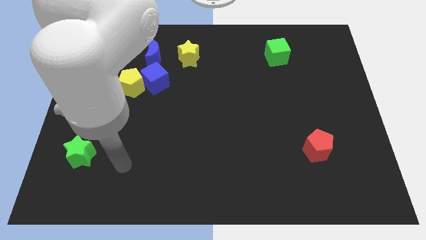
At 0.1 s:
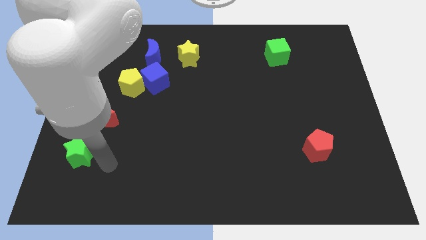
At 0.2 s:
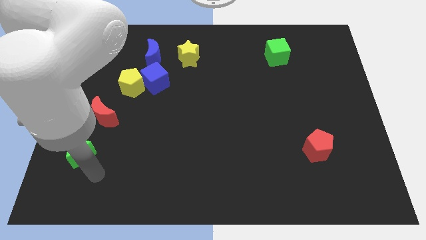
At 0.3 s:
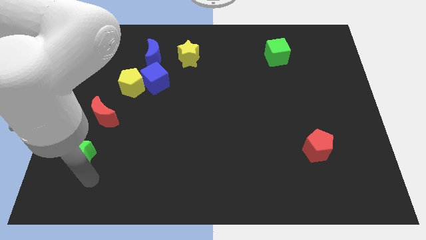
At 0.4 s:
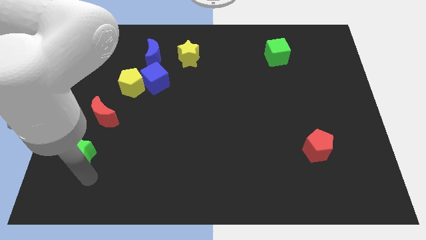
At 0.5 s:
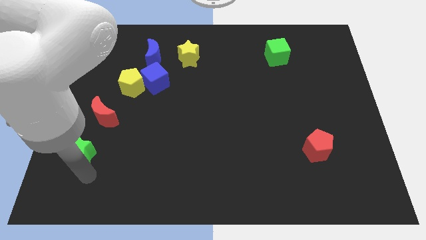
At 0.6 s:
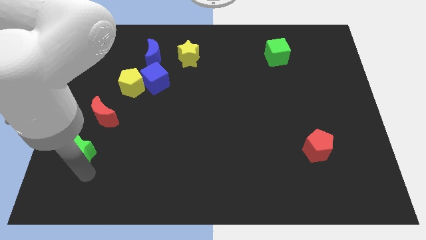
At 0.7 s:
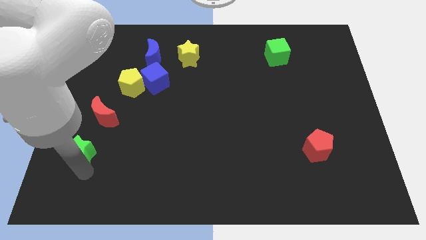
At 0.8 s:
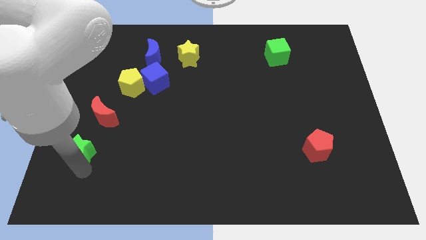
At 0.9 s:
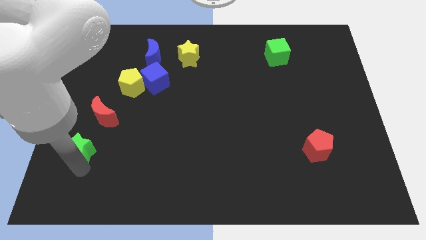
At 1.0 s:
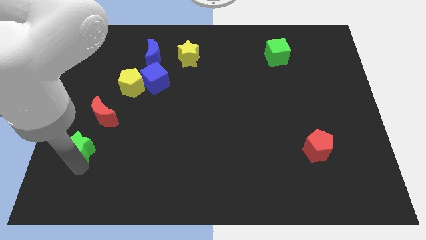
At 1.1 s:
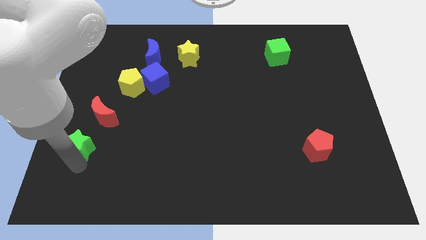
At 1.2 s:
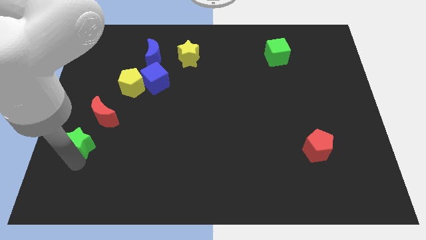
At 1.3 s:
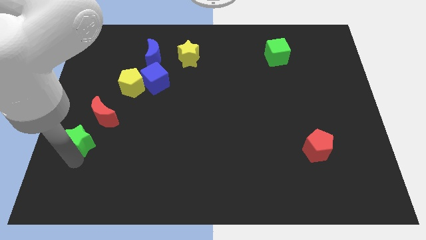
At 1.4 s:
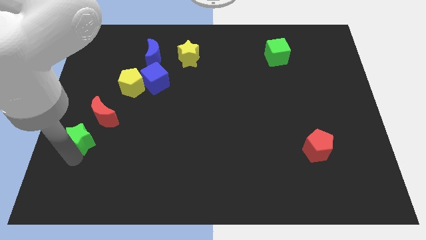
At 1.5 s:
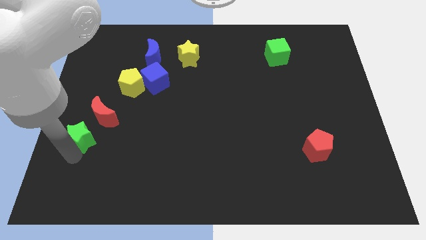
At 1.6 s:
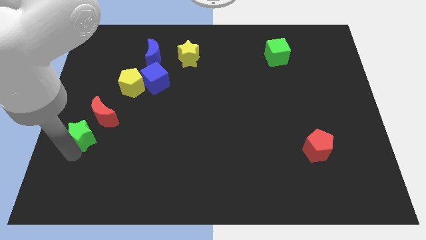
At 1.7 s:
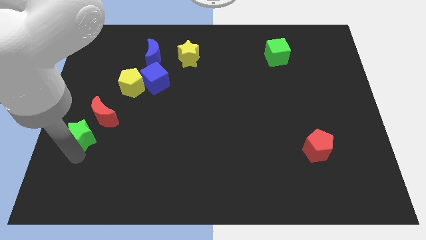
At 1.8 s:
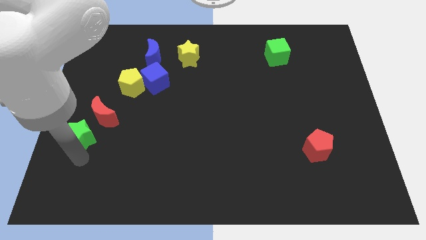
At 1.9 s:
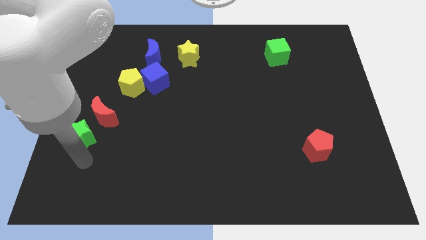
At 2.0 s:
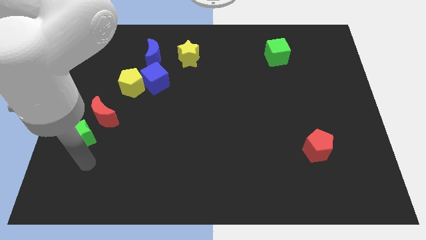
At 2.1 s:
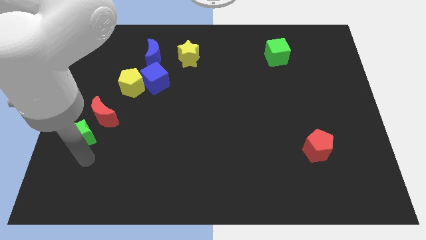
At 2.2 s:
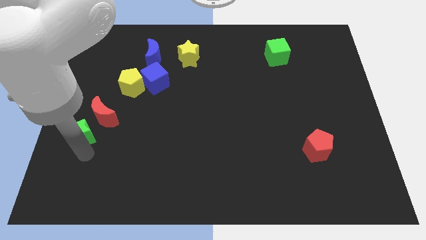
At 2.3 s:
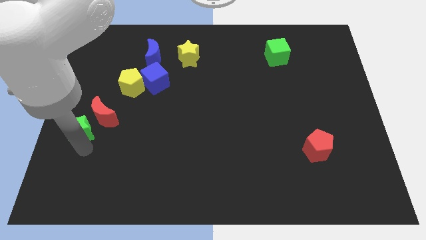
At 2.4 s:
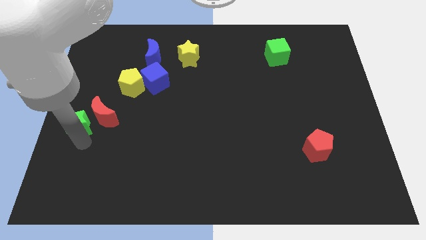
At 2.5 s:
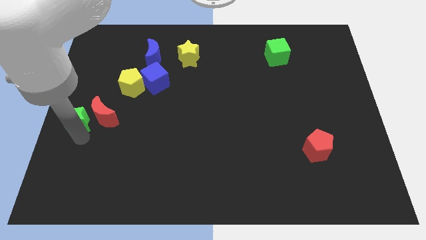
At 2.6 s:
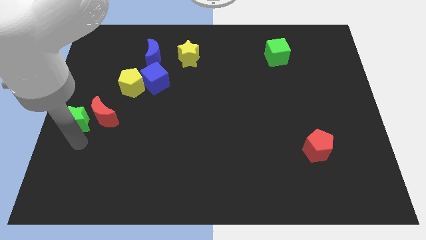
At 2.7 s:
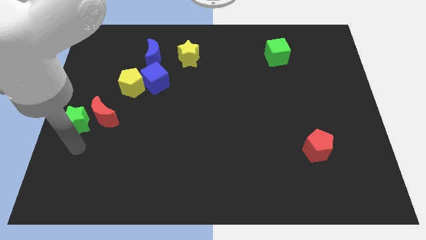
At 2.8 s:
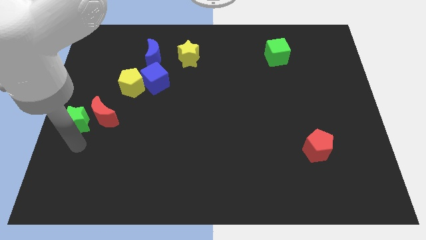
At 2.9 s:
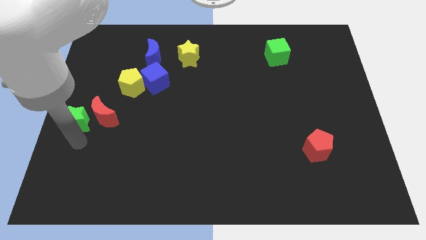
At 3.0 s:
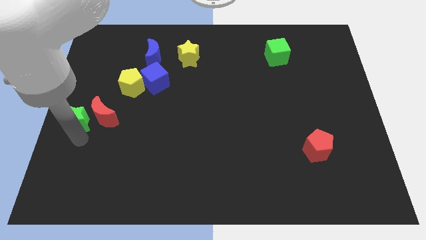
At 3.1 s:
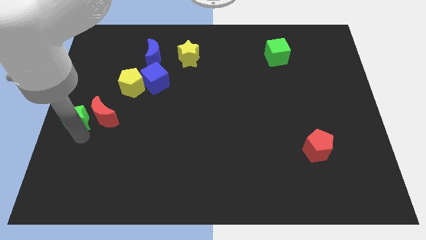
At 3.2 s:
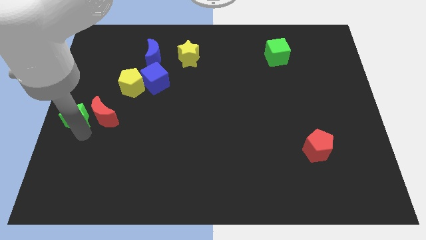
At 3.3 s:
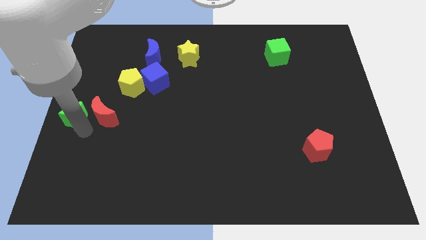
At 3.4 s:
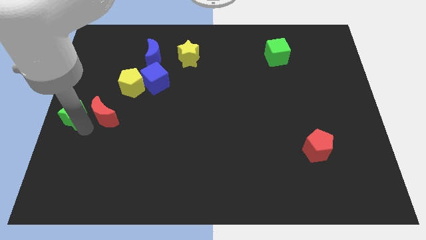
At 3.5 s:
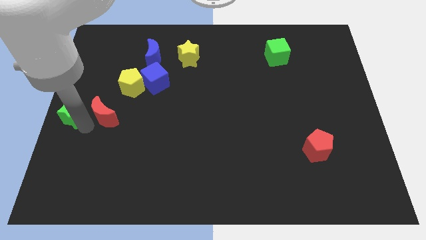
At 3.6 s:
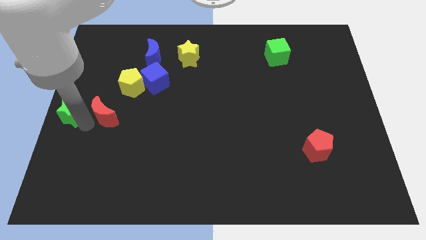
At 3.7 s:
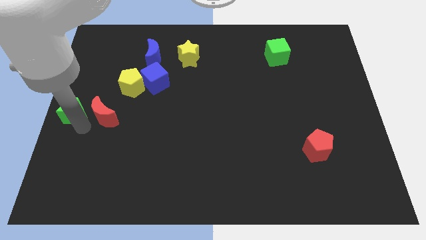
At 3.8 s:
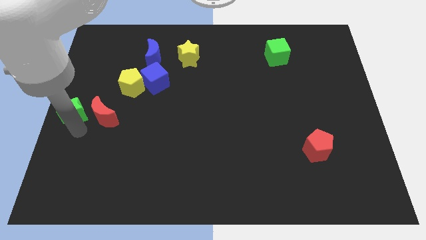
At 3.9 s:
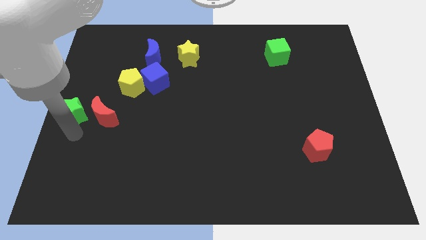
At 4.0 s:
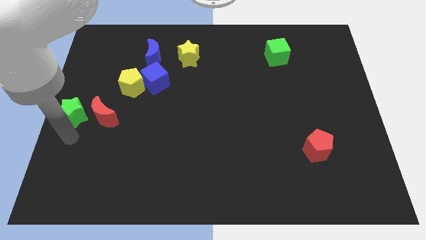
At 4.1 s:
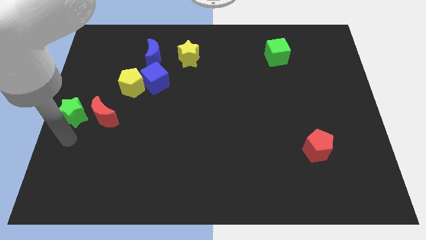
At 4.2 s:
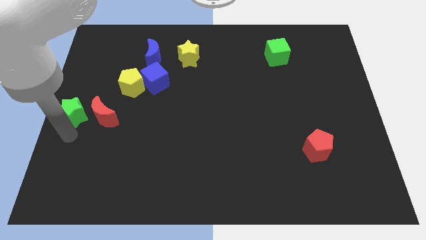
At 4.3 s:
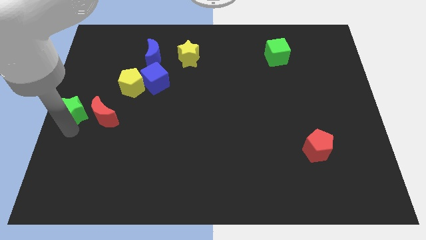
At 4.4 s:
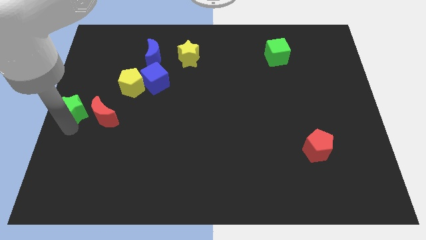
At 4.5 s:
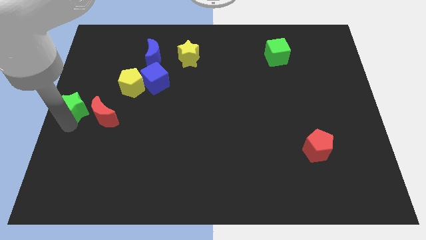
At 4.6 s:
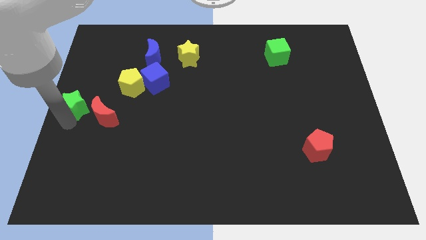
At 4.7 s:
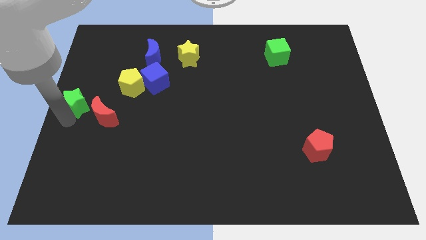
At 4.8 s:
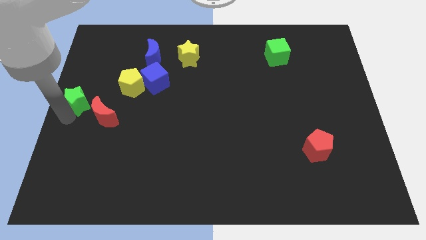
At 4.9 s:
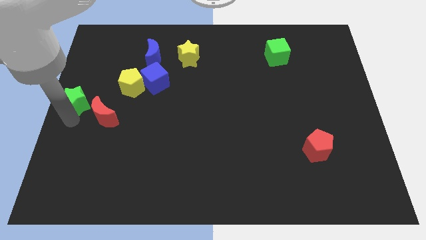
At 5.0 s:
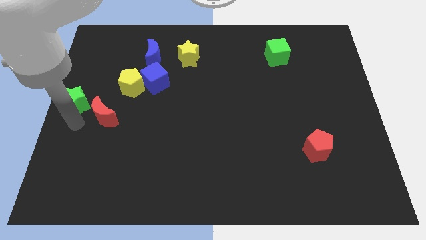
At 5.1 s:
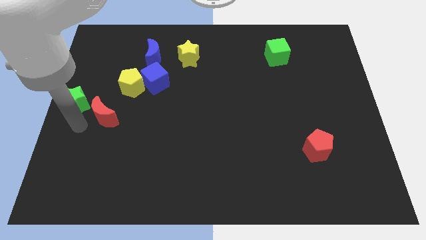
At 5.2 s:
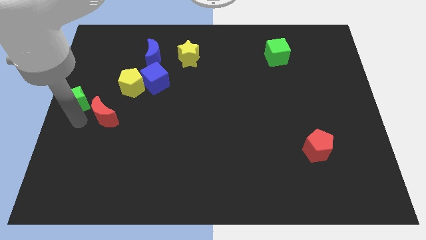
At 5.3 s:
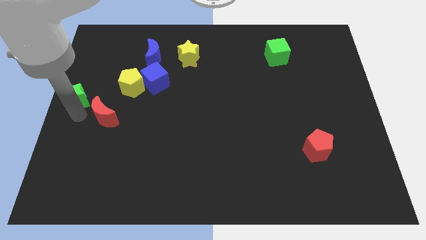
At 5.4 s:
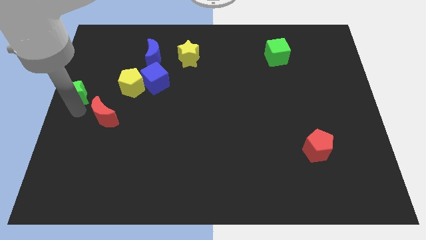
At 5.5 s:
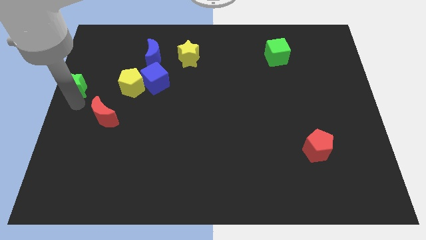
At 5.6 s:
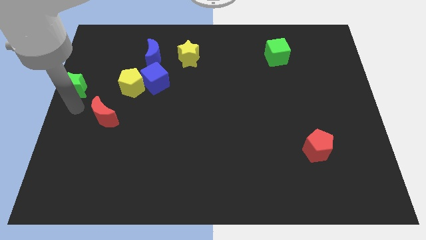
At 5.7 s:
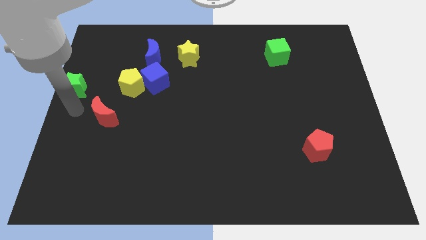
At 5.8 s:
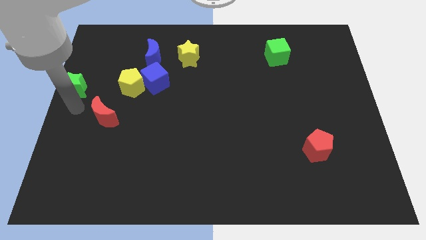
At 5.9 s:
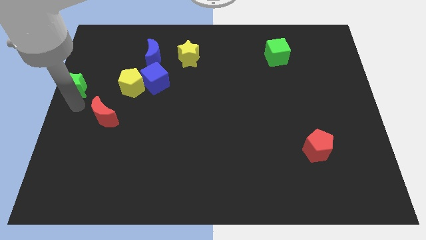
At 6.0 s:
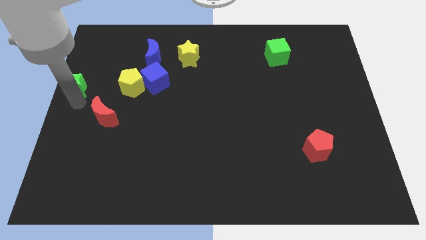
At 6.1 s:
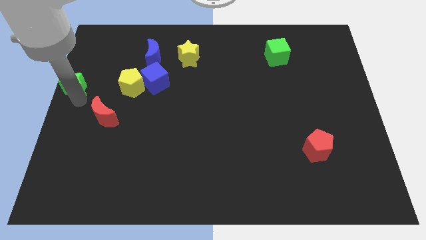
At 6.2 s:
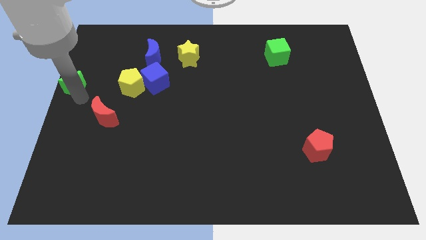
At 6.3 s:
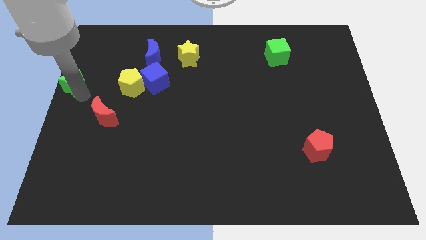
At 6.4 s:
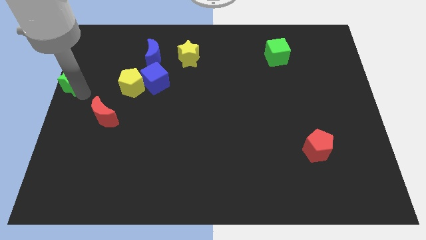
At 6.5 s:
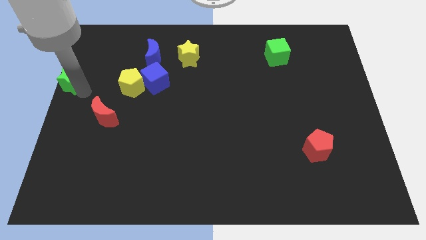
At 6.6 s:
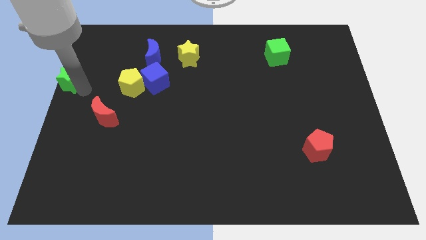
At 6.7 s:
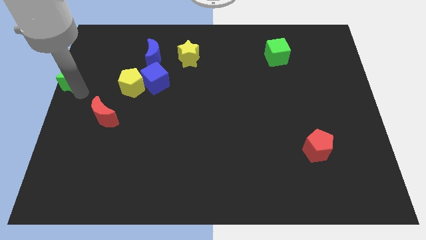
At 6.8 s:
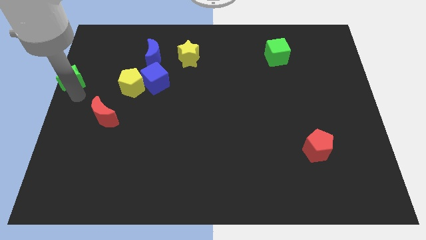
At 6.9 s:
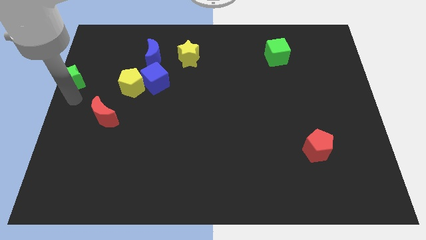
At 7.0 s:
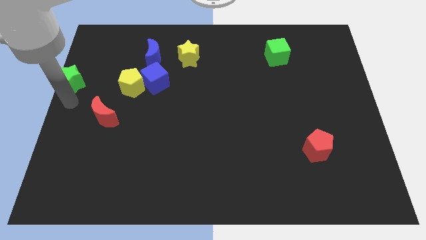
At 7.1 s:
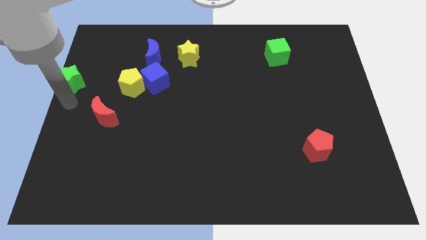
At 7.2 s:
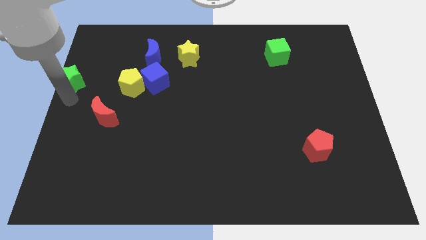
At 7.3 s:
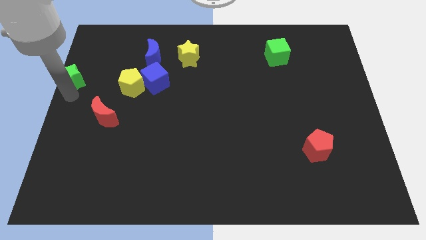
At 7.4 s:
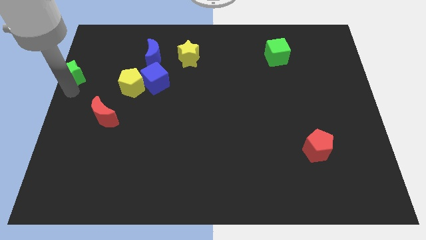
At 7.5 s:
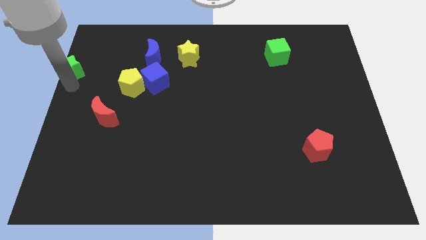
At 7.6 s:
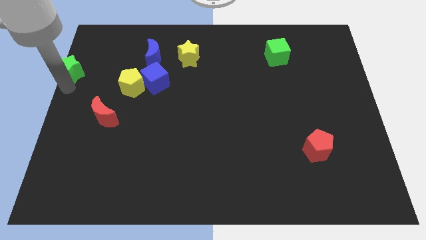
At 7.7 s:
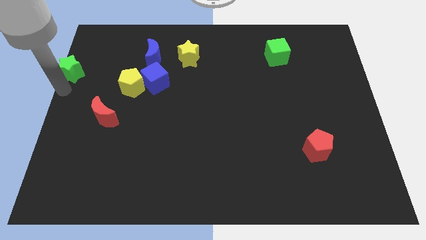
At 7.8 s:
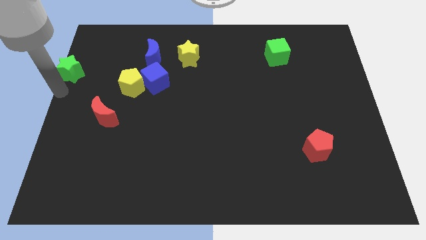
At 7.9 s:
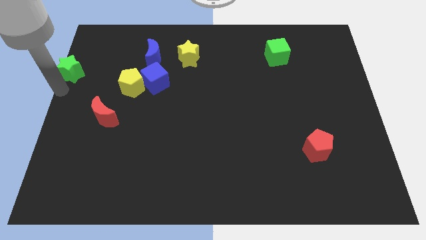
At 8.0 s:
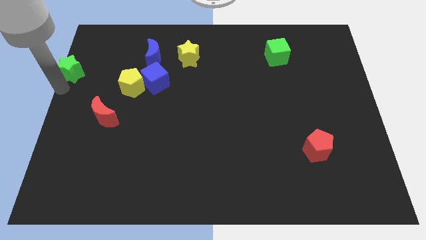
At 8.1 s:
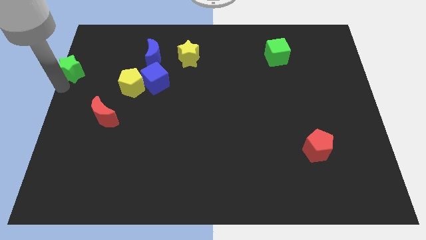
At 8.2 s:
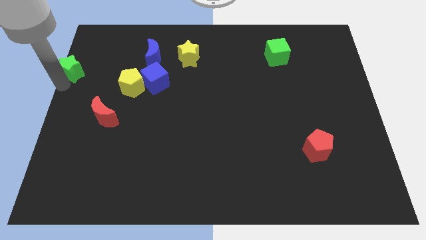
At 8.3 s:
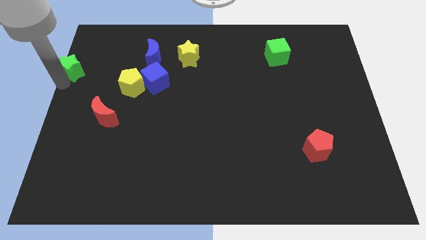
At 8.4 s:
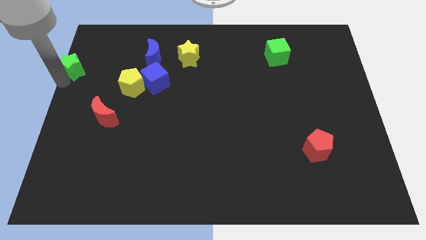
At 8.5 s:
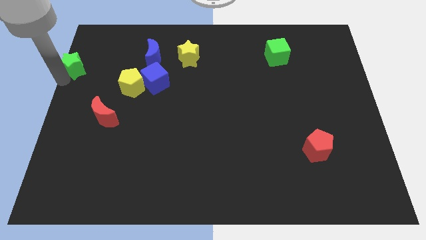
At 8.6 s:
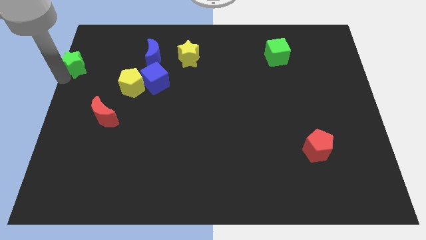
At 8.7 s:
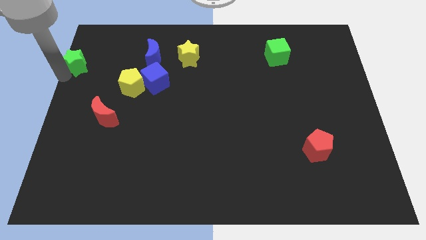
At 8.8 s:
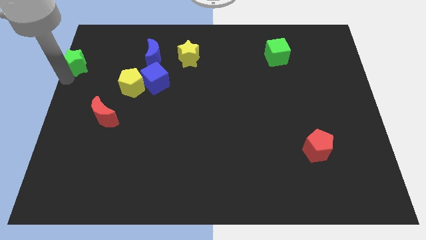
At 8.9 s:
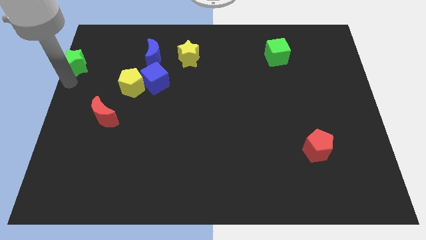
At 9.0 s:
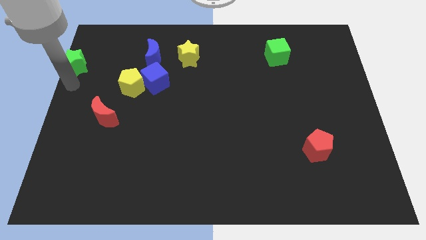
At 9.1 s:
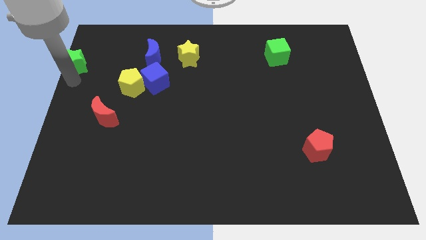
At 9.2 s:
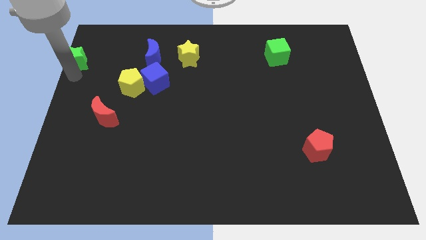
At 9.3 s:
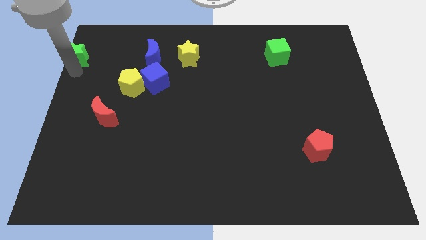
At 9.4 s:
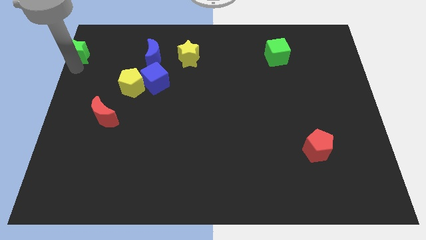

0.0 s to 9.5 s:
move the green star to the upper left corner
